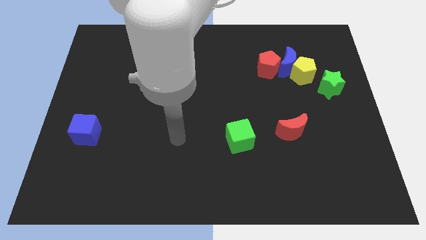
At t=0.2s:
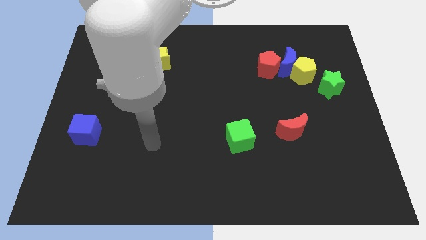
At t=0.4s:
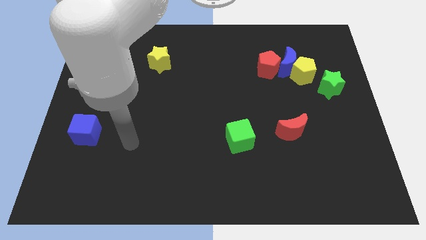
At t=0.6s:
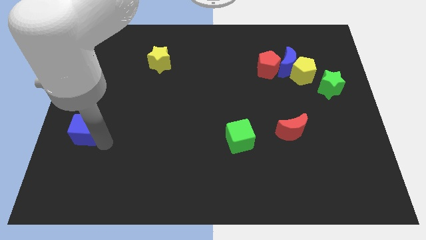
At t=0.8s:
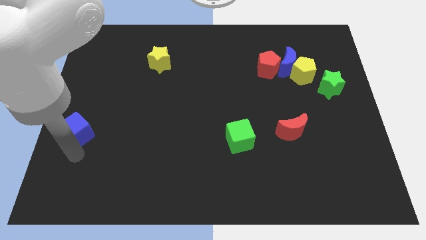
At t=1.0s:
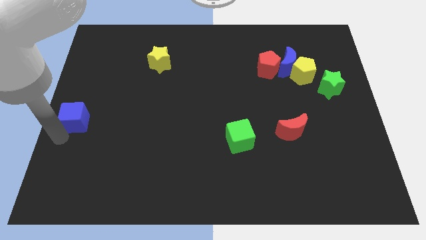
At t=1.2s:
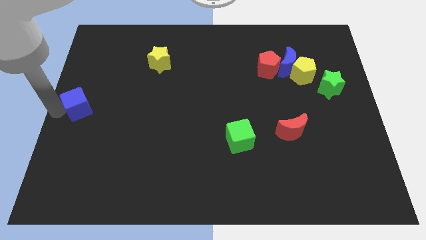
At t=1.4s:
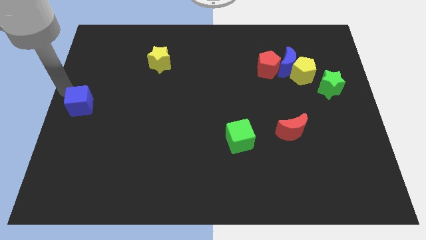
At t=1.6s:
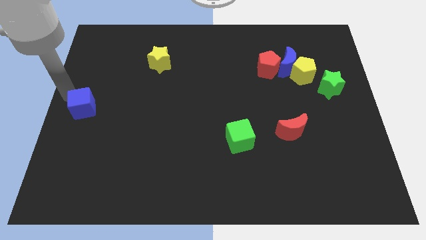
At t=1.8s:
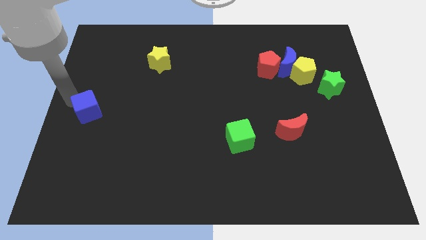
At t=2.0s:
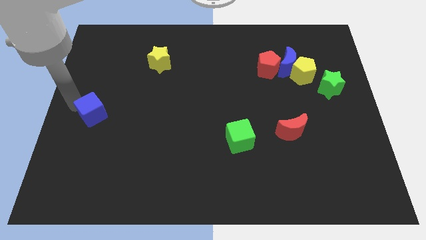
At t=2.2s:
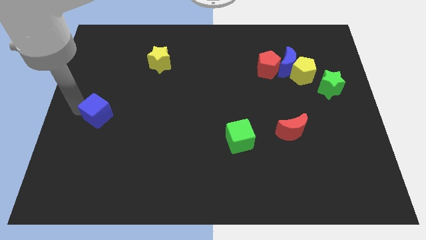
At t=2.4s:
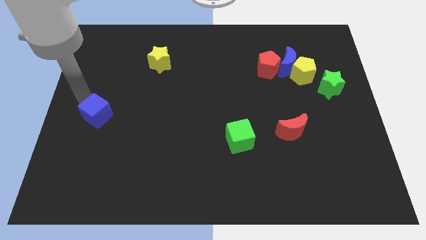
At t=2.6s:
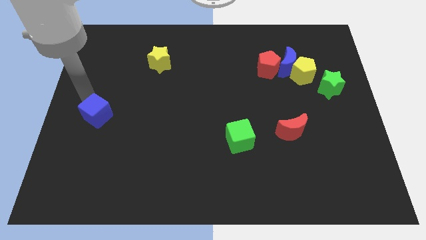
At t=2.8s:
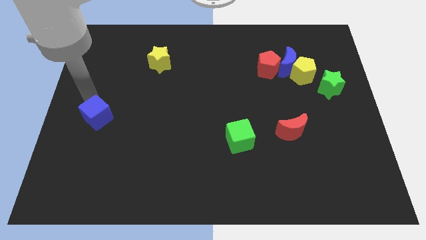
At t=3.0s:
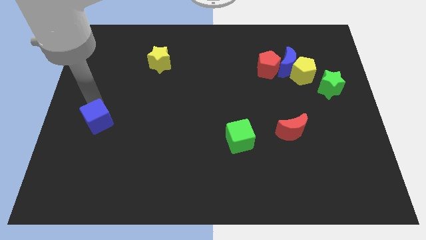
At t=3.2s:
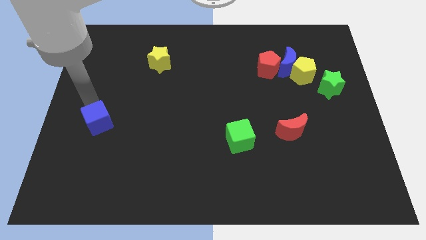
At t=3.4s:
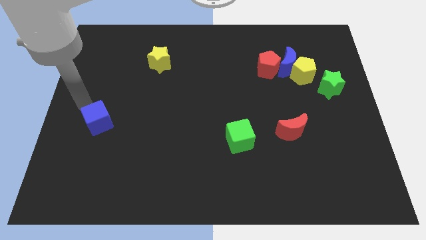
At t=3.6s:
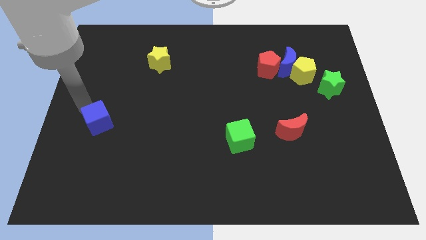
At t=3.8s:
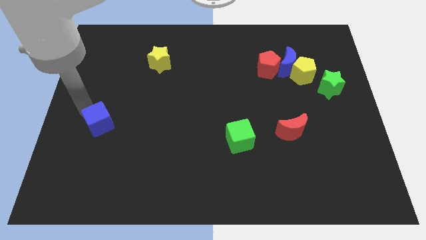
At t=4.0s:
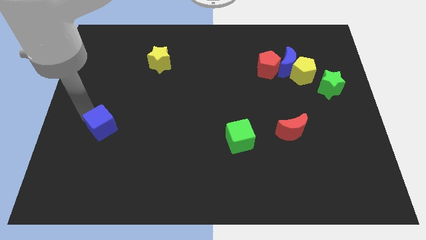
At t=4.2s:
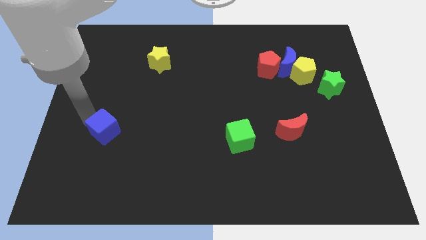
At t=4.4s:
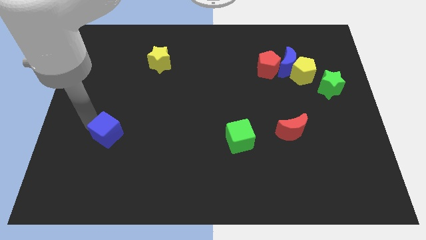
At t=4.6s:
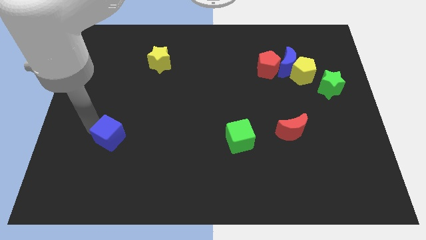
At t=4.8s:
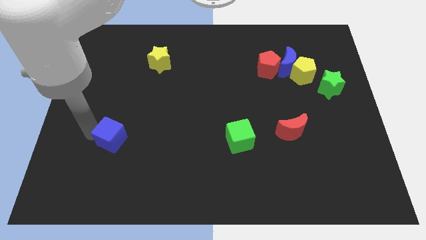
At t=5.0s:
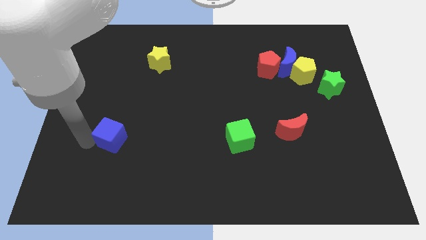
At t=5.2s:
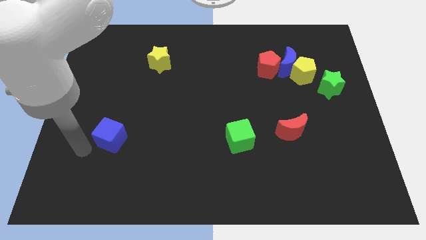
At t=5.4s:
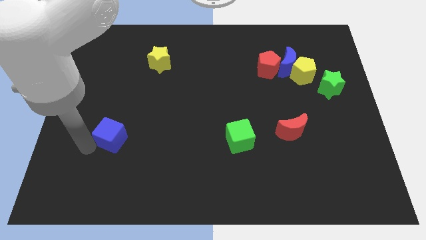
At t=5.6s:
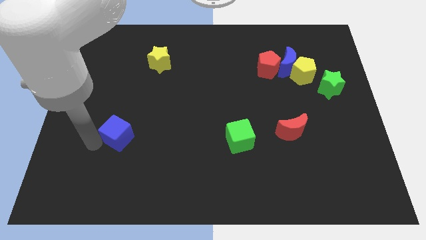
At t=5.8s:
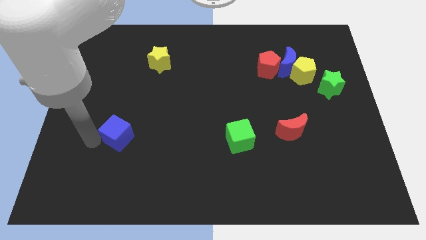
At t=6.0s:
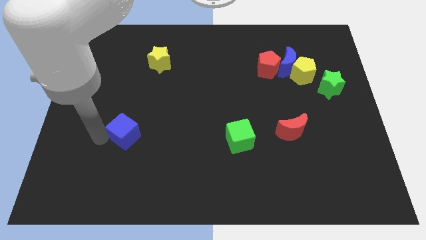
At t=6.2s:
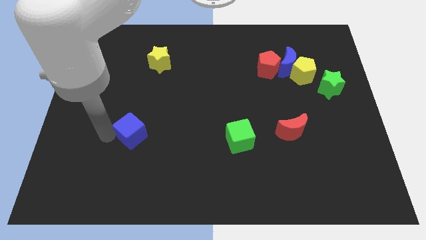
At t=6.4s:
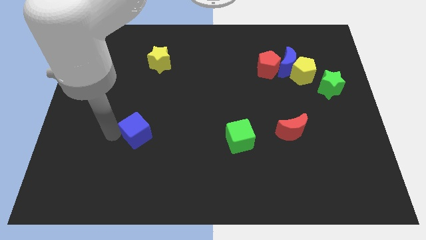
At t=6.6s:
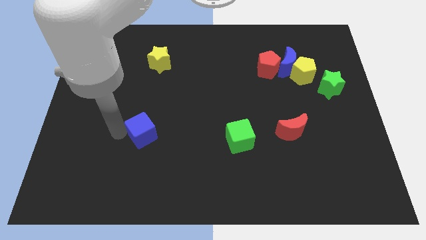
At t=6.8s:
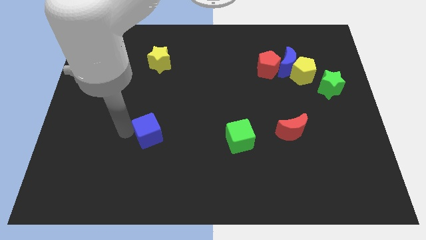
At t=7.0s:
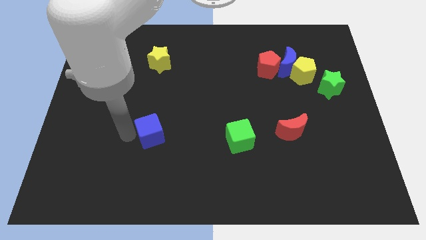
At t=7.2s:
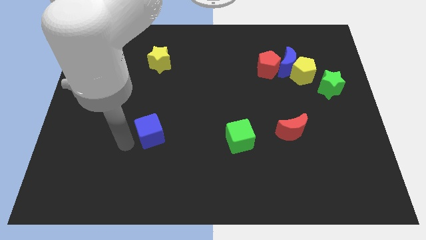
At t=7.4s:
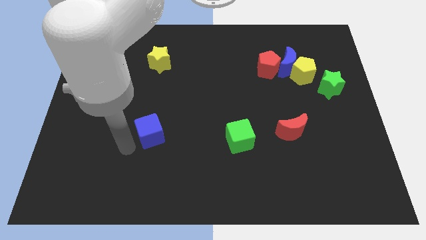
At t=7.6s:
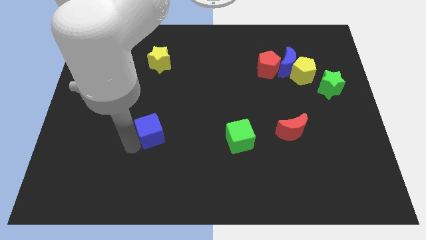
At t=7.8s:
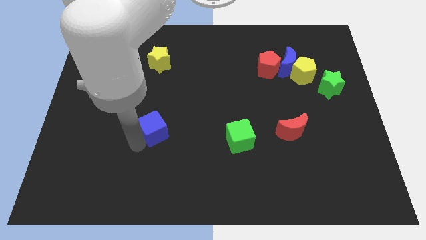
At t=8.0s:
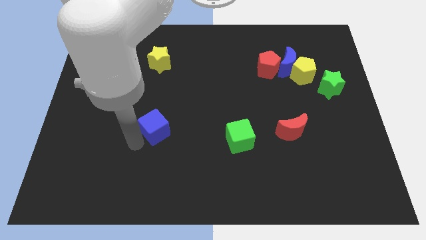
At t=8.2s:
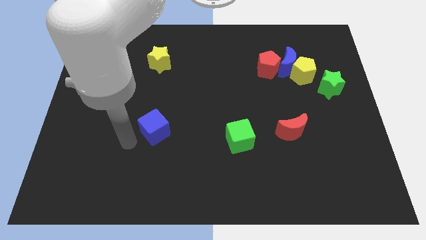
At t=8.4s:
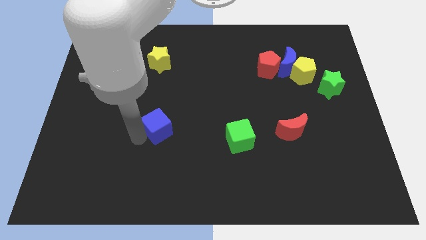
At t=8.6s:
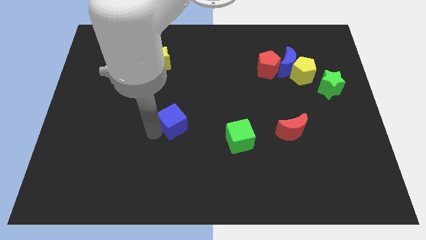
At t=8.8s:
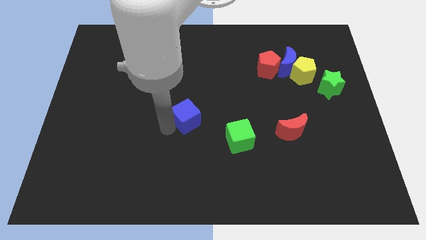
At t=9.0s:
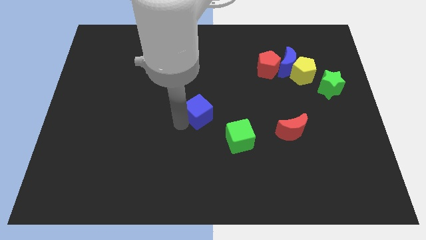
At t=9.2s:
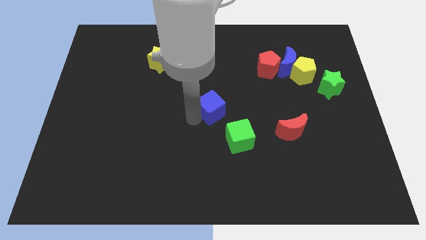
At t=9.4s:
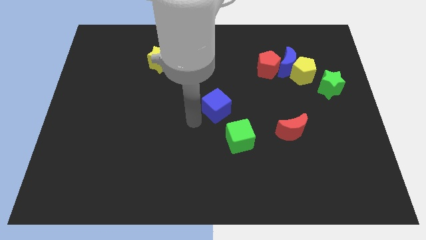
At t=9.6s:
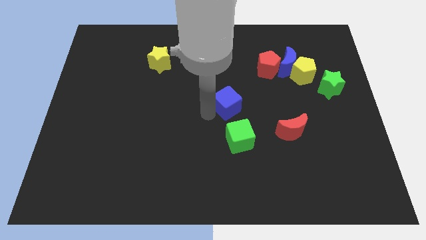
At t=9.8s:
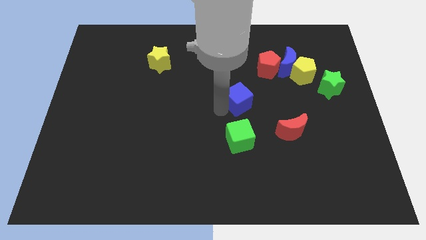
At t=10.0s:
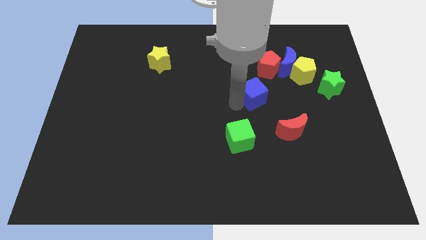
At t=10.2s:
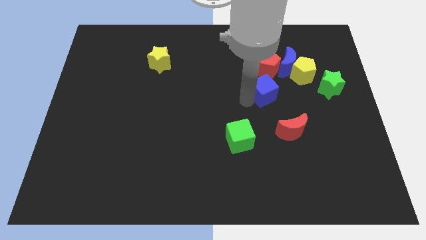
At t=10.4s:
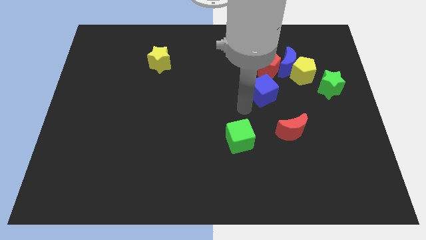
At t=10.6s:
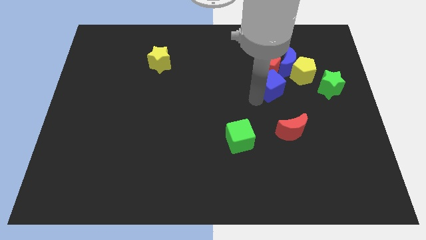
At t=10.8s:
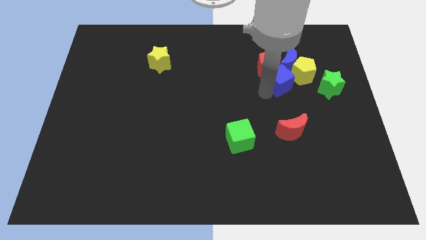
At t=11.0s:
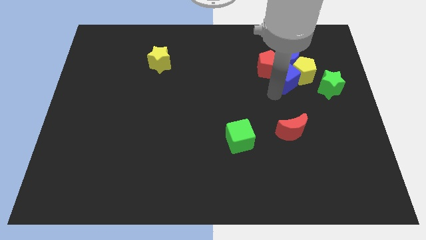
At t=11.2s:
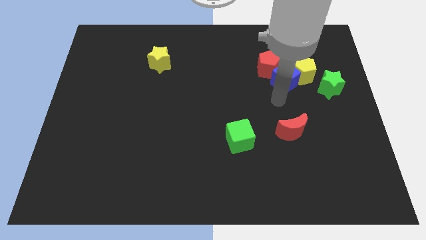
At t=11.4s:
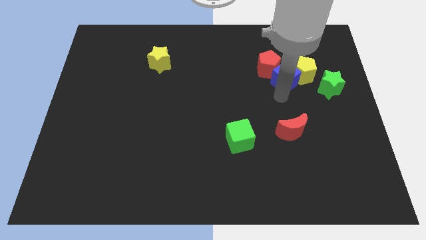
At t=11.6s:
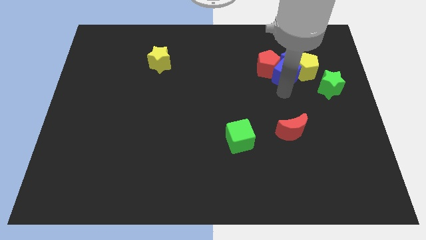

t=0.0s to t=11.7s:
put the blue cube to the blue moon

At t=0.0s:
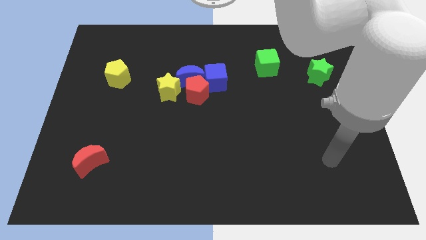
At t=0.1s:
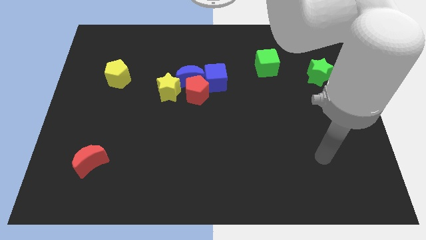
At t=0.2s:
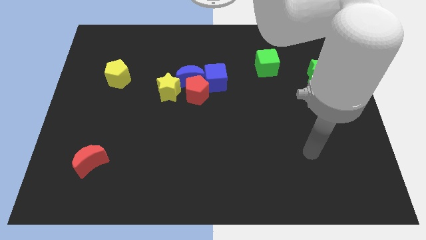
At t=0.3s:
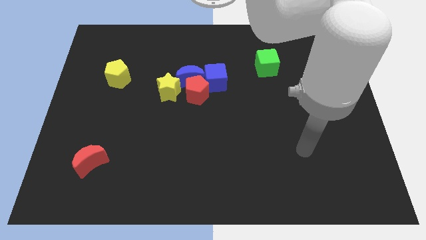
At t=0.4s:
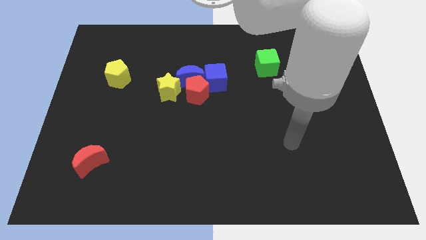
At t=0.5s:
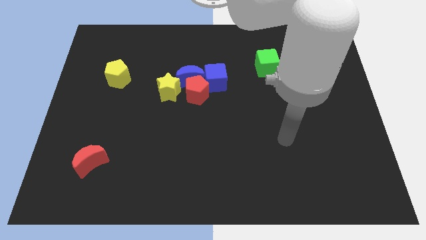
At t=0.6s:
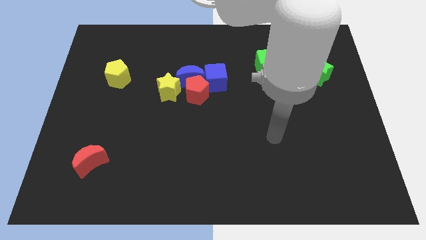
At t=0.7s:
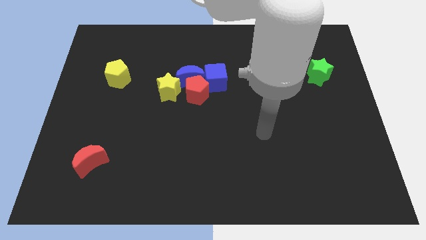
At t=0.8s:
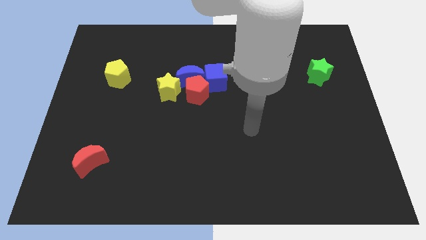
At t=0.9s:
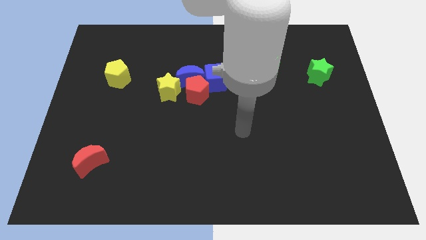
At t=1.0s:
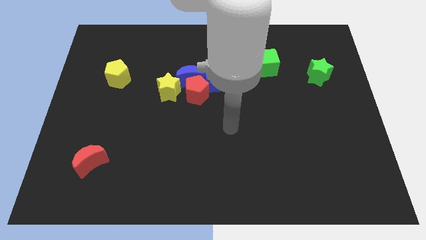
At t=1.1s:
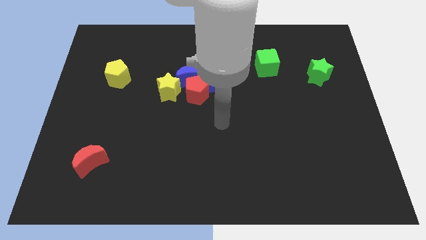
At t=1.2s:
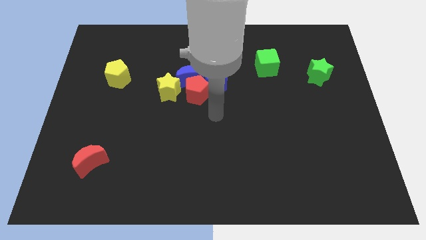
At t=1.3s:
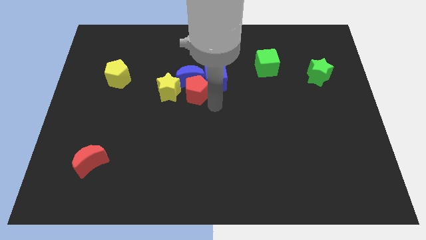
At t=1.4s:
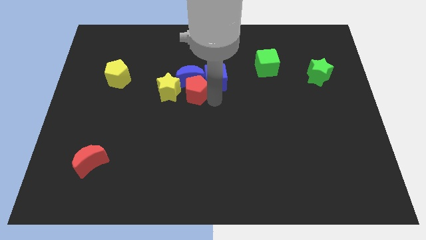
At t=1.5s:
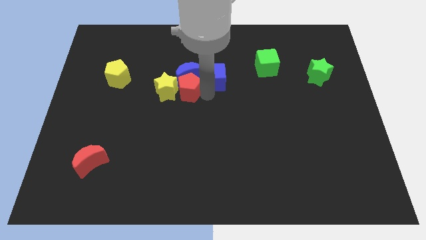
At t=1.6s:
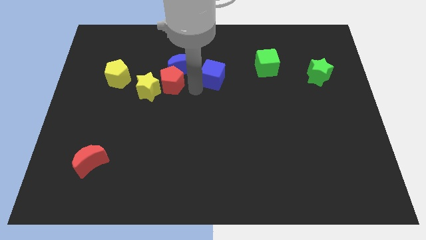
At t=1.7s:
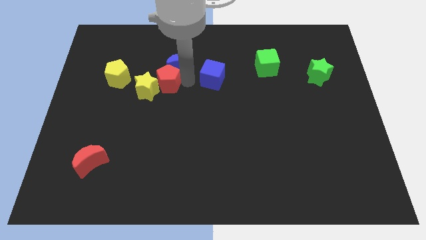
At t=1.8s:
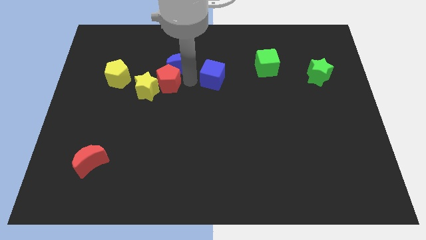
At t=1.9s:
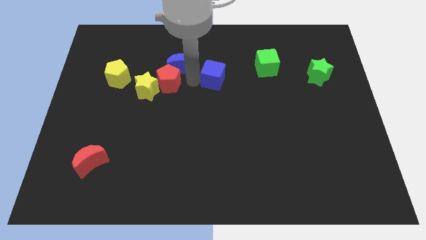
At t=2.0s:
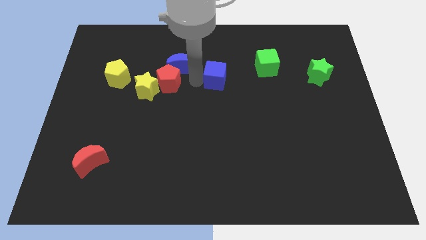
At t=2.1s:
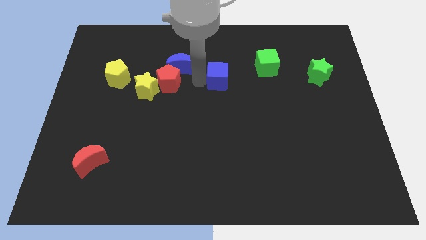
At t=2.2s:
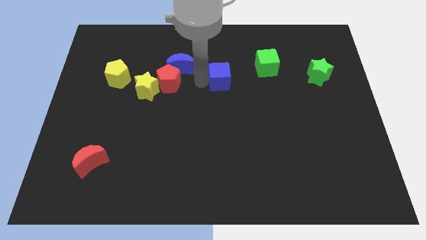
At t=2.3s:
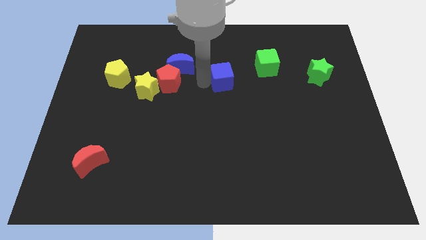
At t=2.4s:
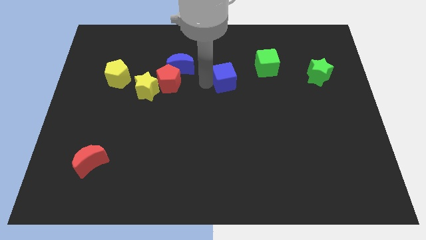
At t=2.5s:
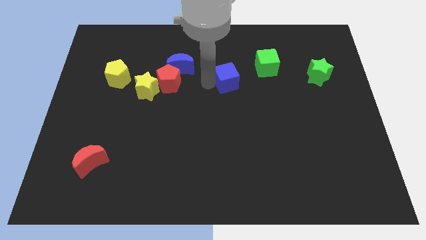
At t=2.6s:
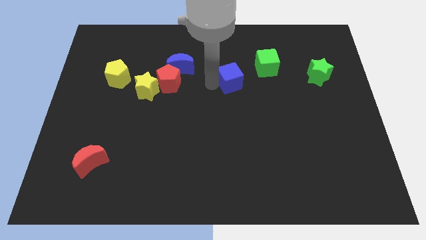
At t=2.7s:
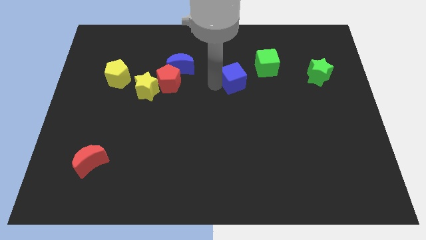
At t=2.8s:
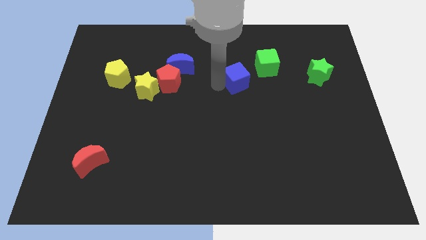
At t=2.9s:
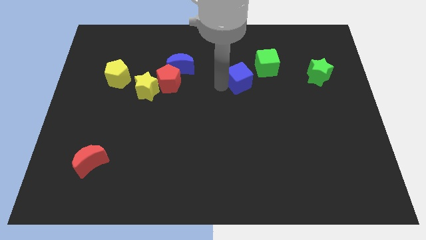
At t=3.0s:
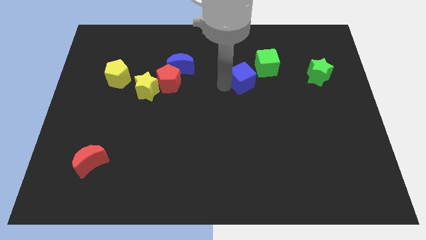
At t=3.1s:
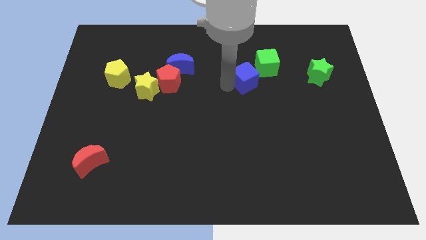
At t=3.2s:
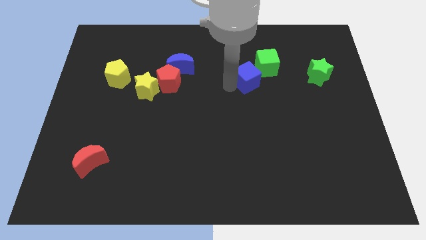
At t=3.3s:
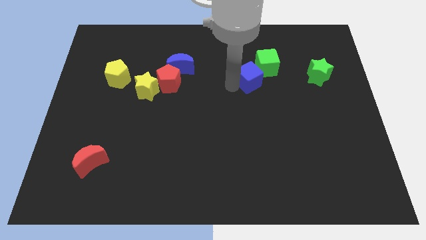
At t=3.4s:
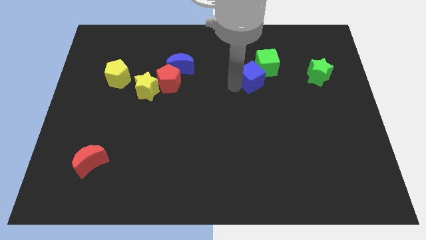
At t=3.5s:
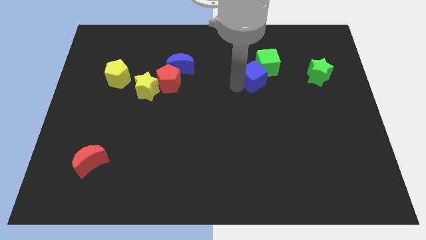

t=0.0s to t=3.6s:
push the blue cube towards the green cube
